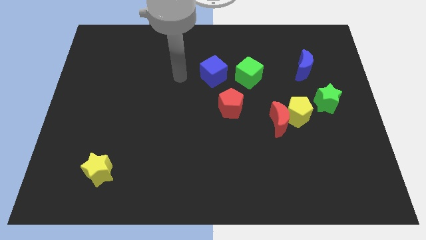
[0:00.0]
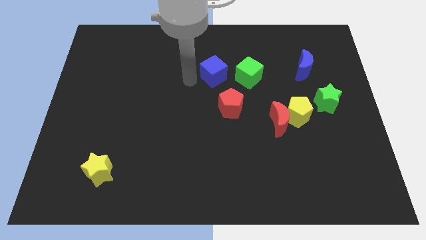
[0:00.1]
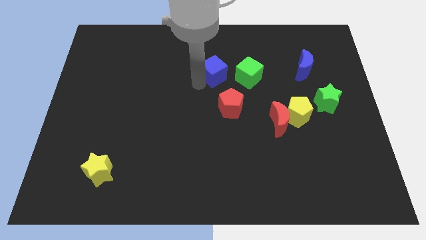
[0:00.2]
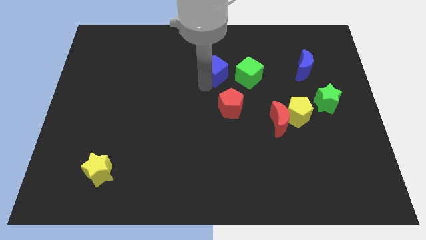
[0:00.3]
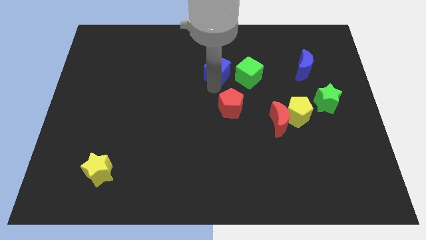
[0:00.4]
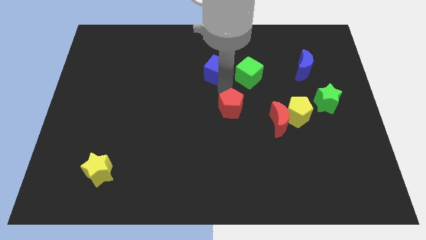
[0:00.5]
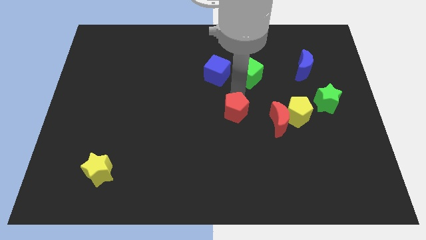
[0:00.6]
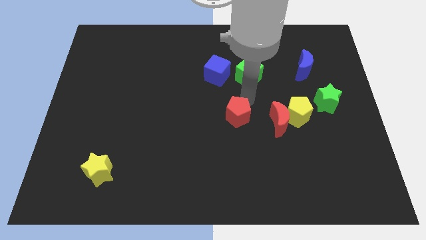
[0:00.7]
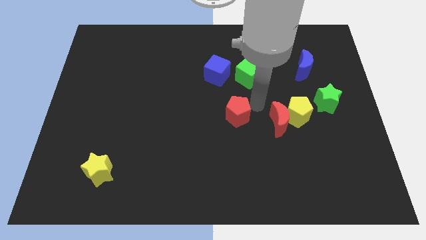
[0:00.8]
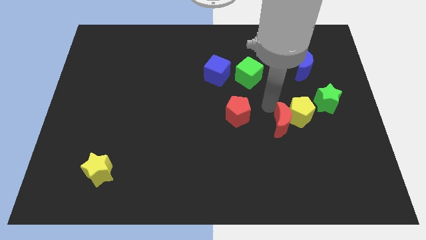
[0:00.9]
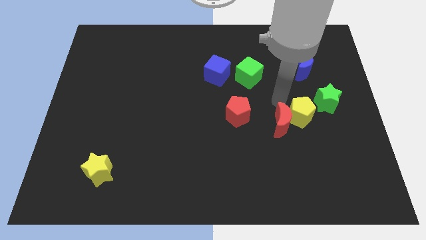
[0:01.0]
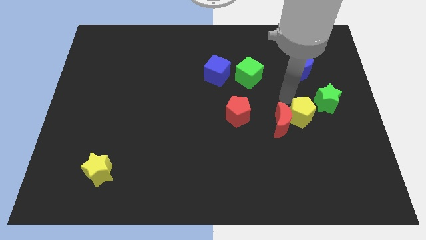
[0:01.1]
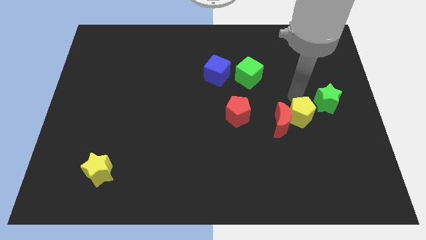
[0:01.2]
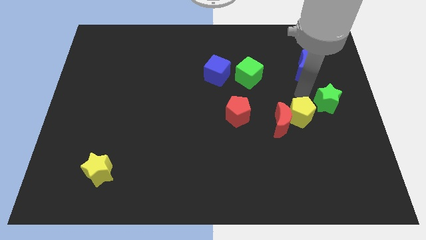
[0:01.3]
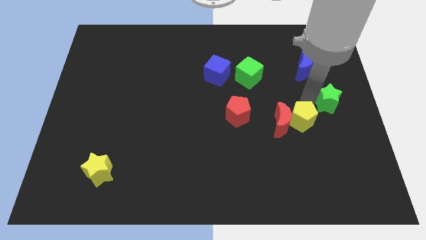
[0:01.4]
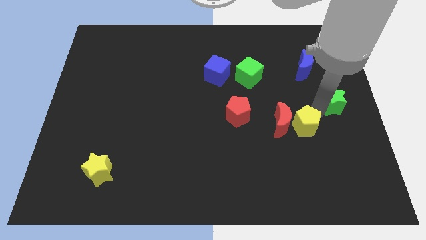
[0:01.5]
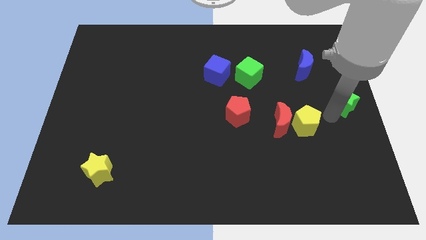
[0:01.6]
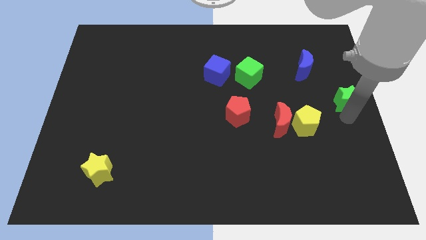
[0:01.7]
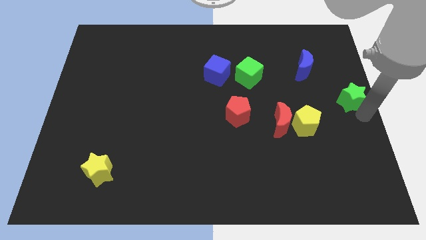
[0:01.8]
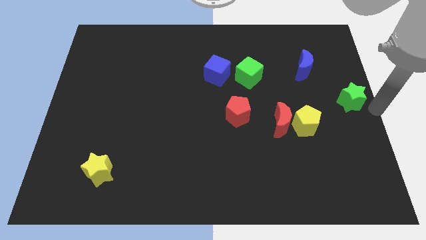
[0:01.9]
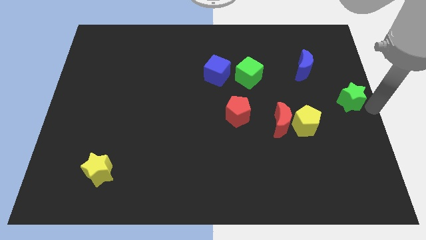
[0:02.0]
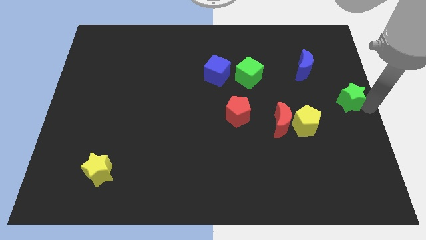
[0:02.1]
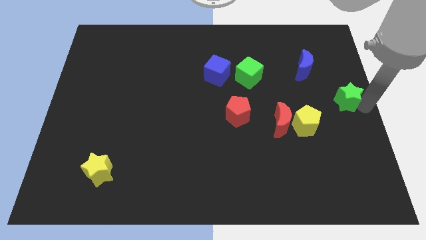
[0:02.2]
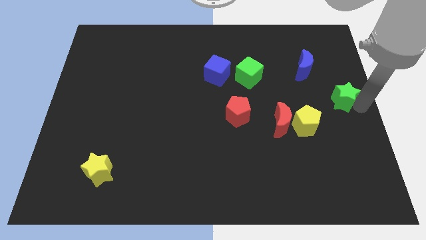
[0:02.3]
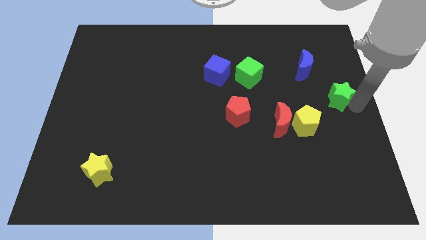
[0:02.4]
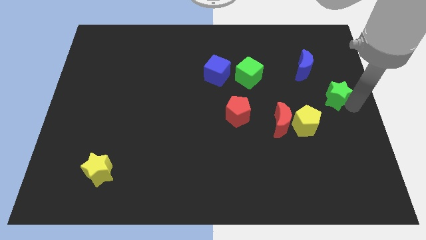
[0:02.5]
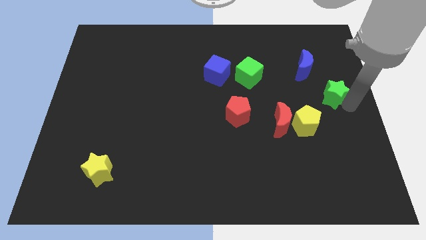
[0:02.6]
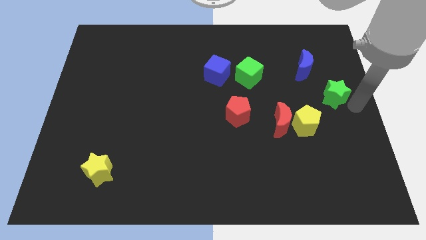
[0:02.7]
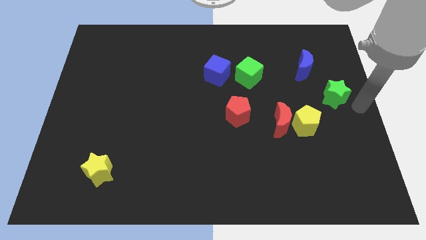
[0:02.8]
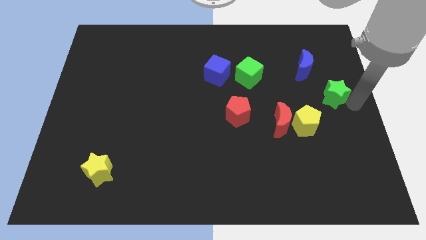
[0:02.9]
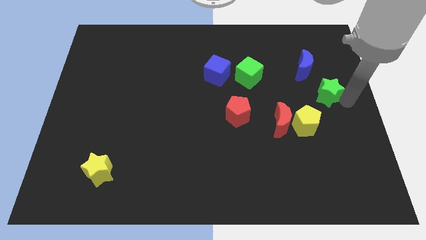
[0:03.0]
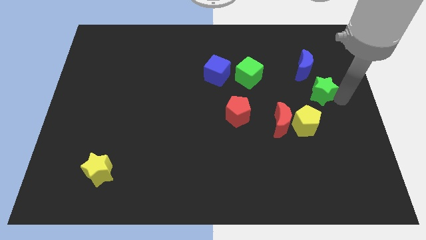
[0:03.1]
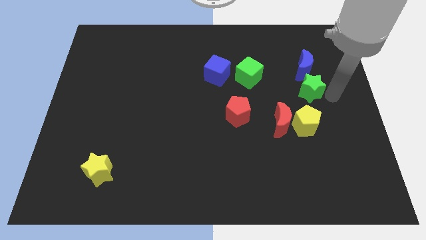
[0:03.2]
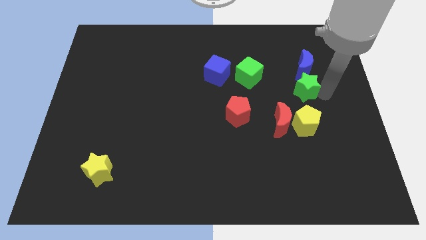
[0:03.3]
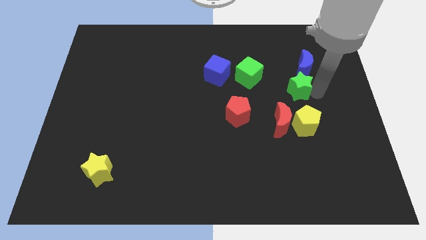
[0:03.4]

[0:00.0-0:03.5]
push the green star diagonally up and to the left slightly

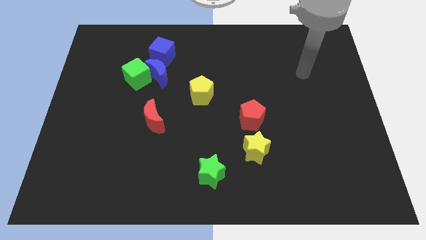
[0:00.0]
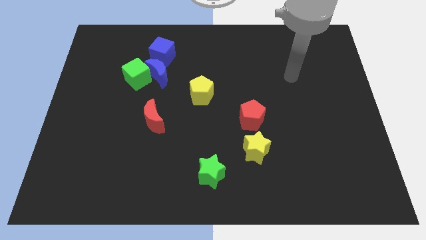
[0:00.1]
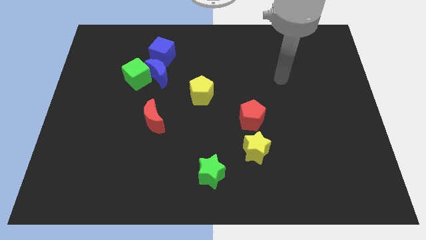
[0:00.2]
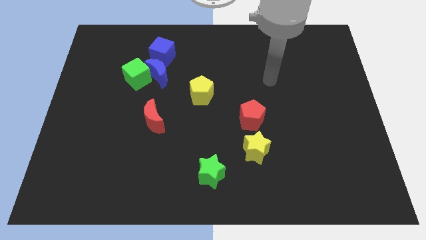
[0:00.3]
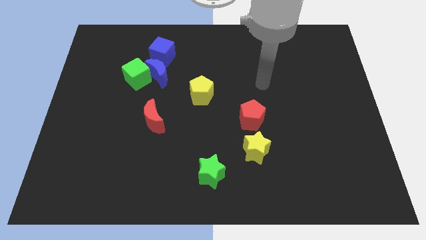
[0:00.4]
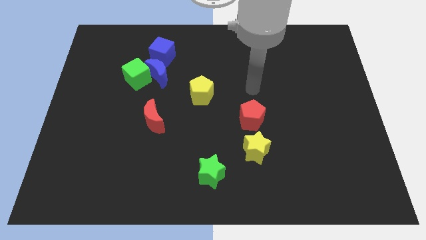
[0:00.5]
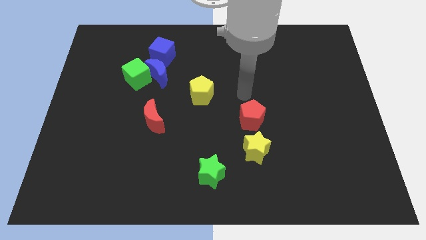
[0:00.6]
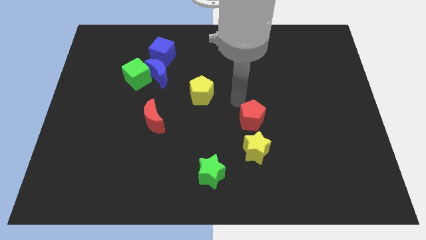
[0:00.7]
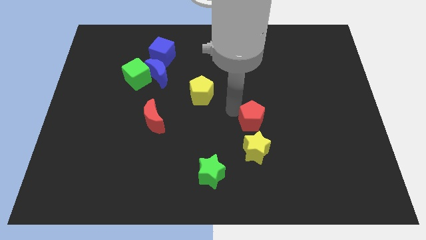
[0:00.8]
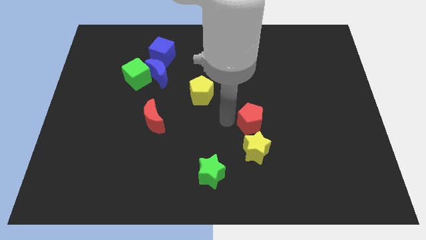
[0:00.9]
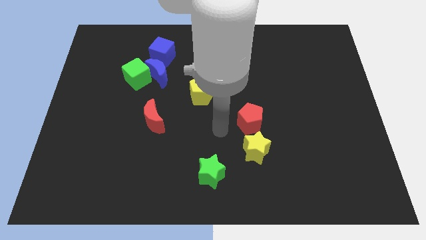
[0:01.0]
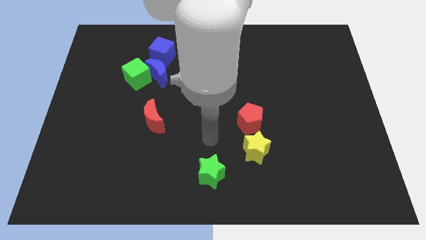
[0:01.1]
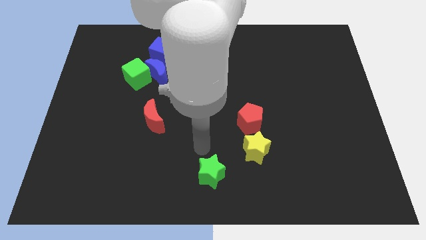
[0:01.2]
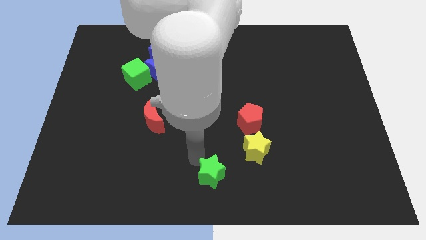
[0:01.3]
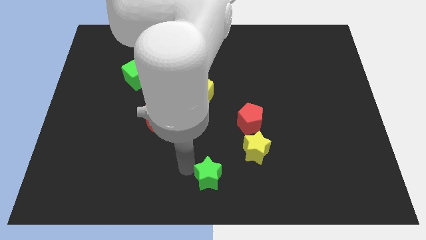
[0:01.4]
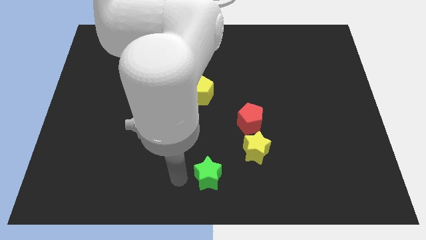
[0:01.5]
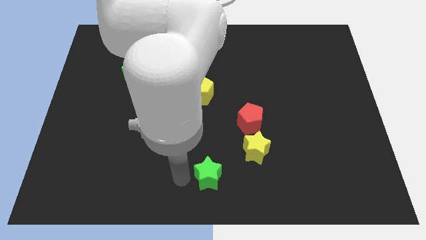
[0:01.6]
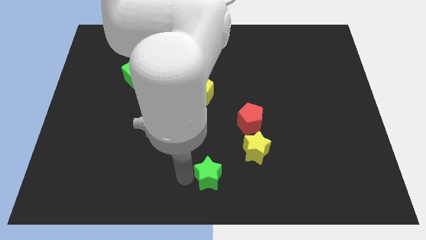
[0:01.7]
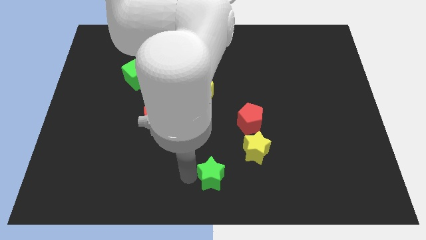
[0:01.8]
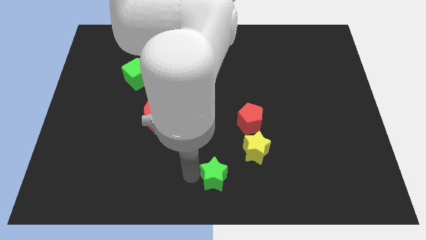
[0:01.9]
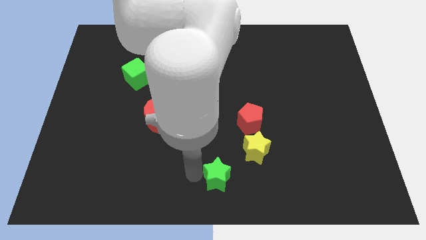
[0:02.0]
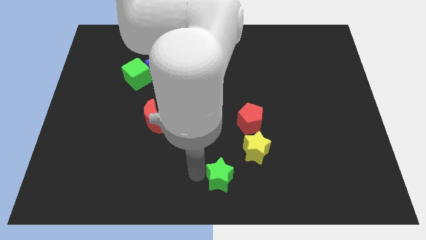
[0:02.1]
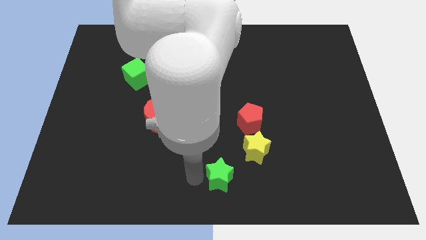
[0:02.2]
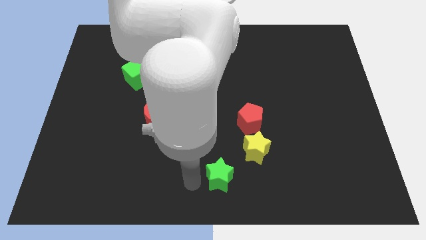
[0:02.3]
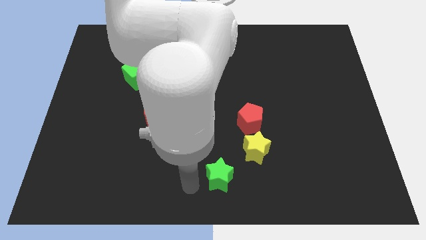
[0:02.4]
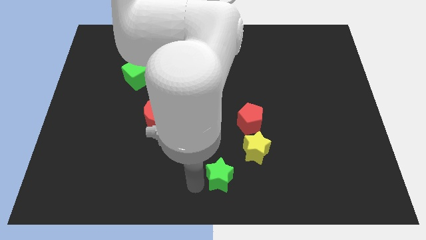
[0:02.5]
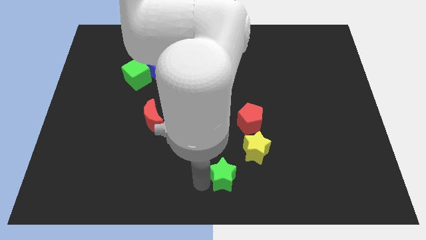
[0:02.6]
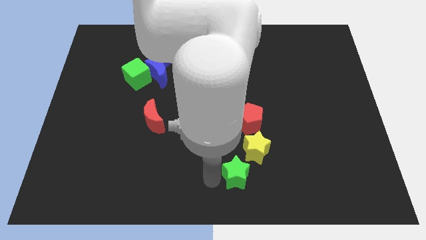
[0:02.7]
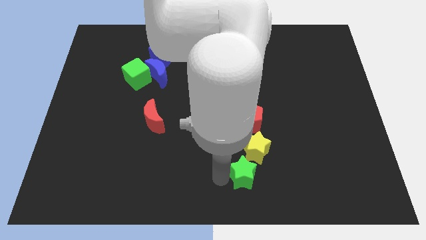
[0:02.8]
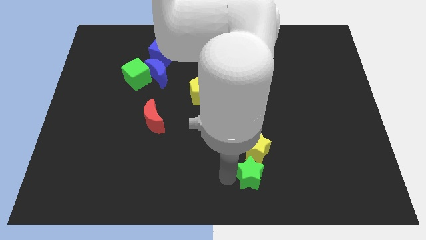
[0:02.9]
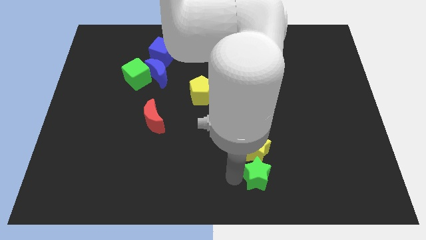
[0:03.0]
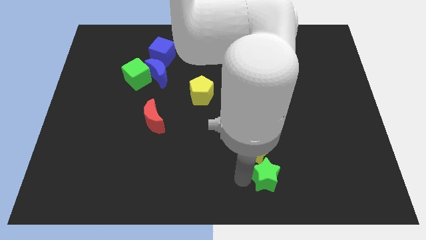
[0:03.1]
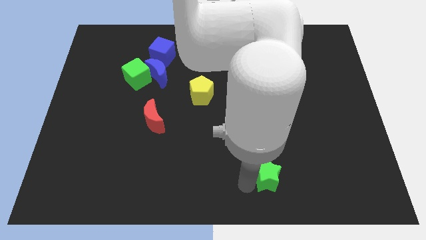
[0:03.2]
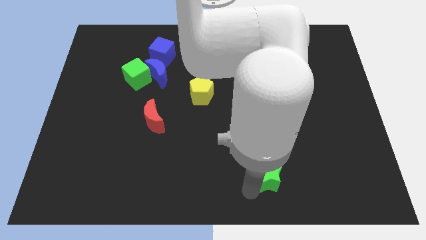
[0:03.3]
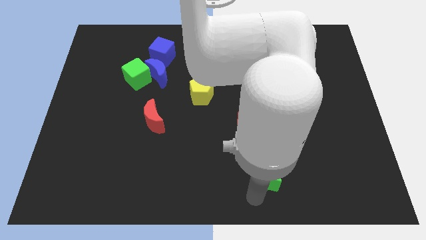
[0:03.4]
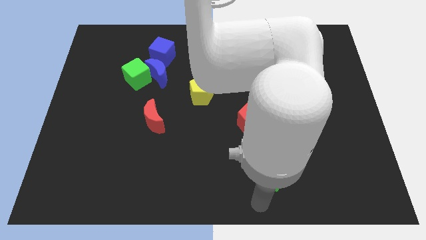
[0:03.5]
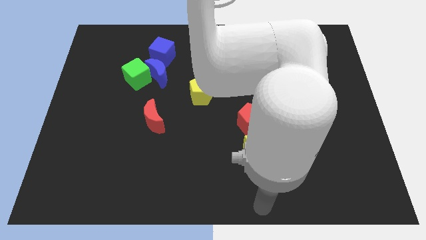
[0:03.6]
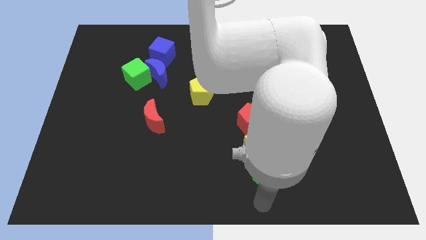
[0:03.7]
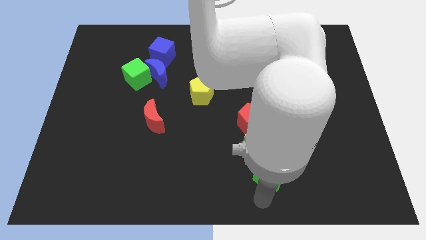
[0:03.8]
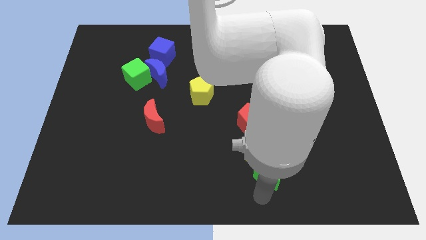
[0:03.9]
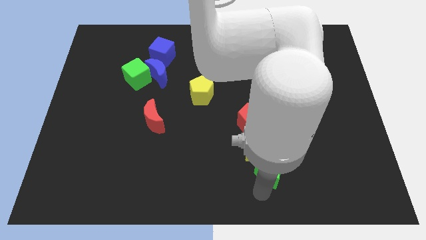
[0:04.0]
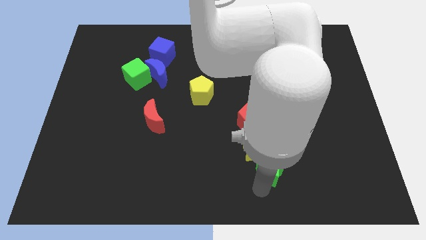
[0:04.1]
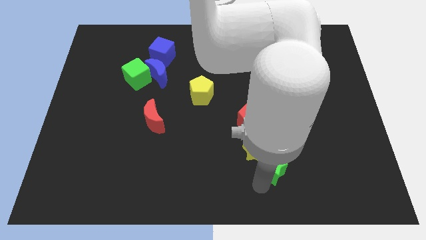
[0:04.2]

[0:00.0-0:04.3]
push the green star a little up and then right

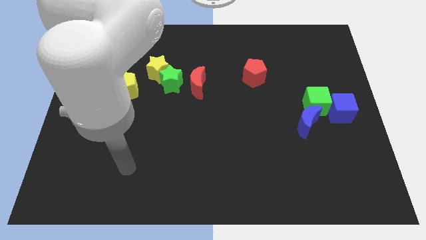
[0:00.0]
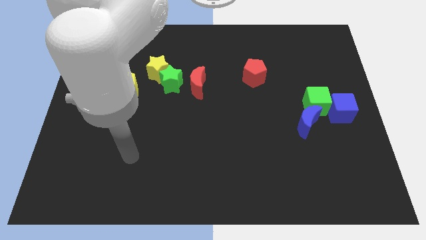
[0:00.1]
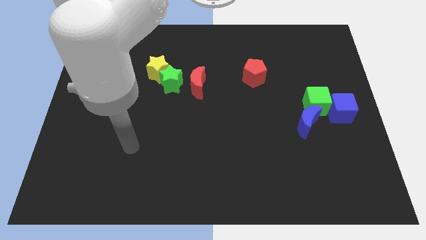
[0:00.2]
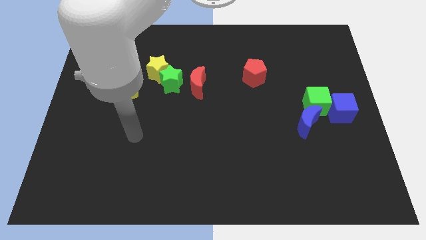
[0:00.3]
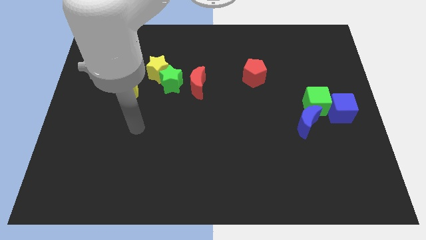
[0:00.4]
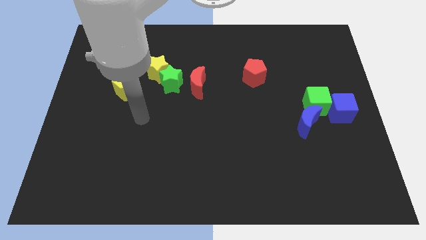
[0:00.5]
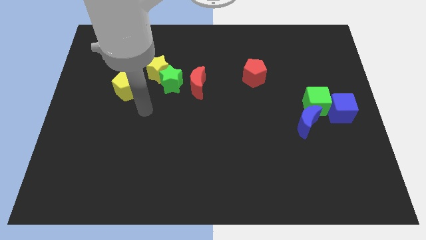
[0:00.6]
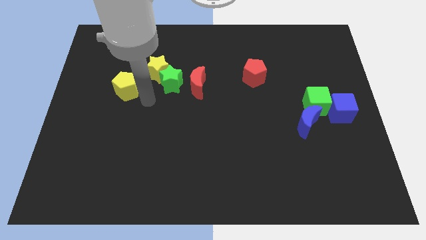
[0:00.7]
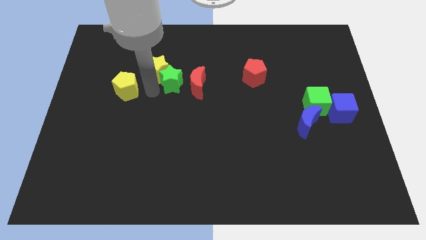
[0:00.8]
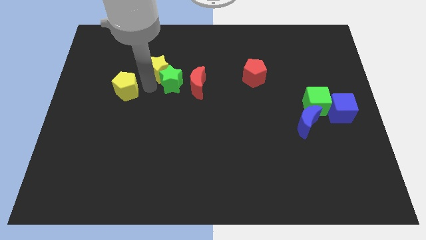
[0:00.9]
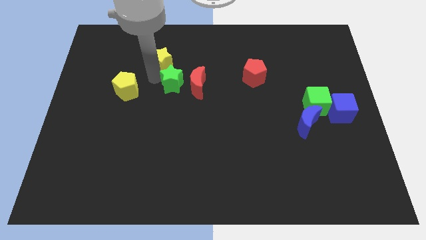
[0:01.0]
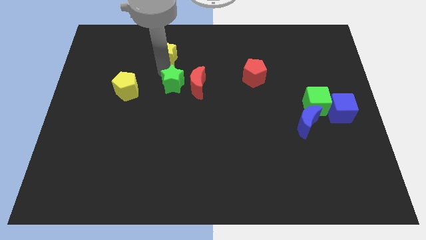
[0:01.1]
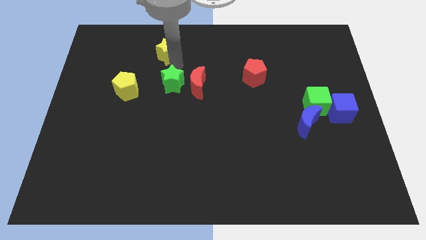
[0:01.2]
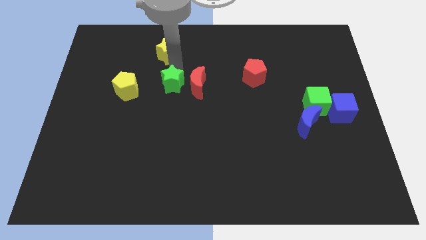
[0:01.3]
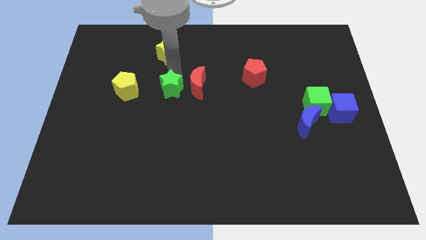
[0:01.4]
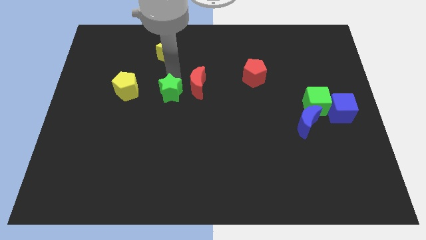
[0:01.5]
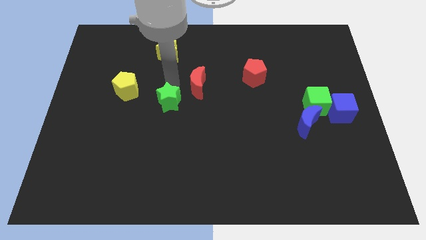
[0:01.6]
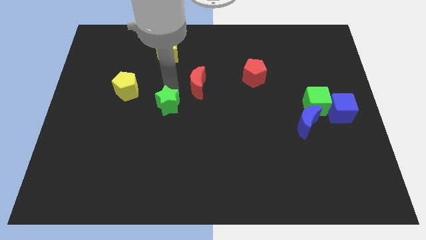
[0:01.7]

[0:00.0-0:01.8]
move the green star slightly down
